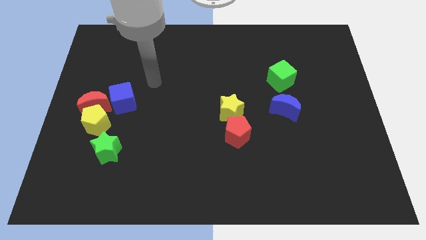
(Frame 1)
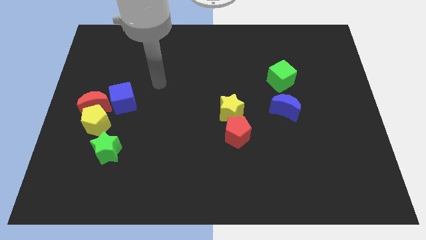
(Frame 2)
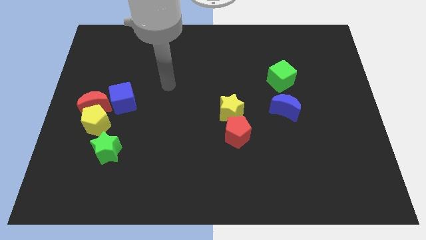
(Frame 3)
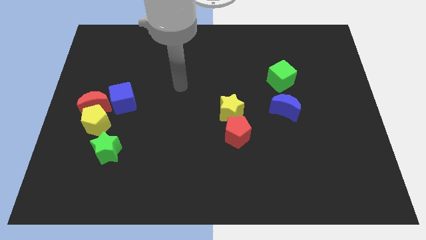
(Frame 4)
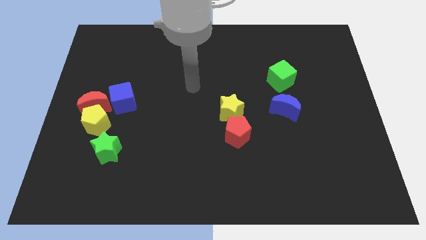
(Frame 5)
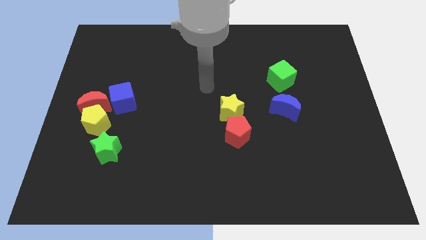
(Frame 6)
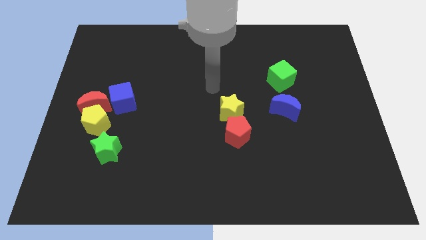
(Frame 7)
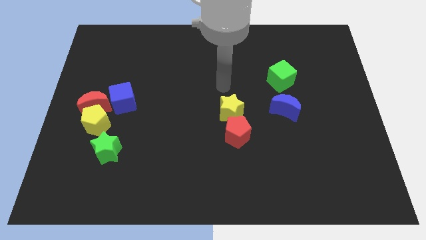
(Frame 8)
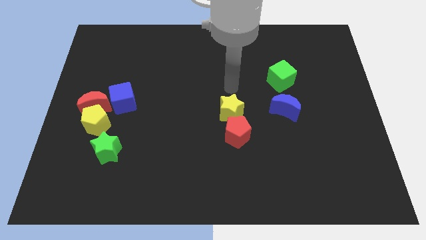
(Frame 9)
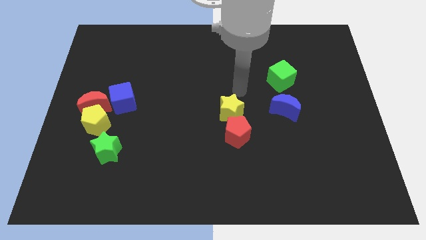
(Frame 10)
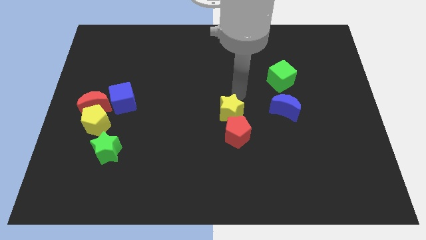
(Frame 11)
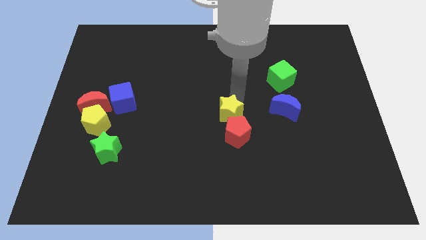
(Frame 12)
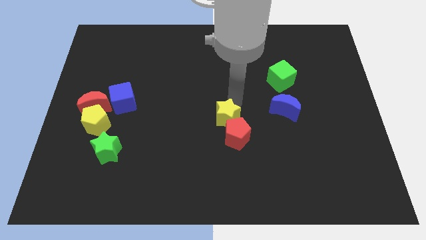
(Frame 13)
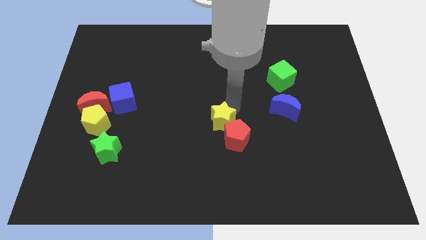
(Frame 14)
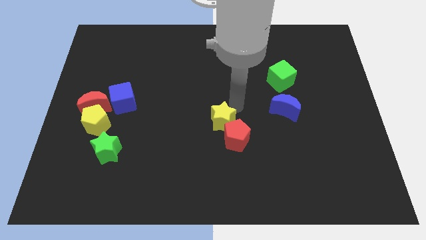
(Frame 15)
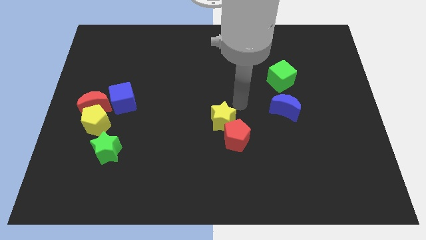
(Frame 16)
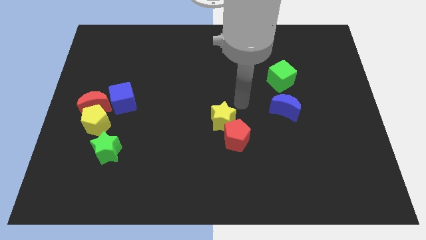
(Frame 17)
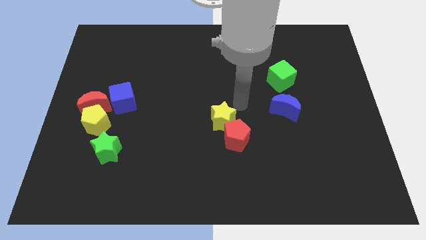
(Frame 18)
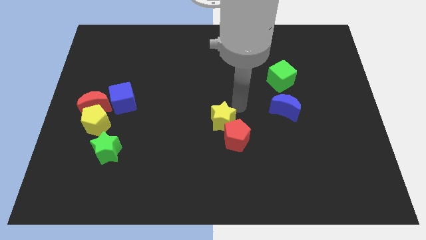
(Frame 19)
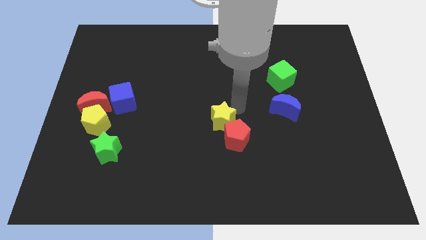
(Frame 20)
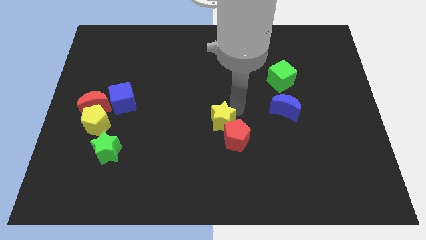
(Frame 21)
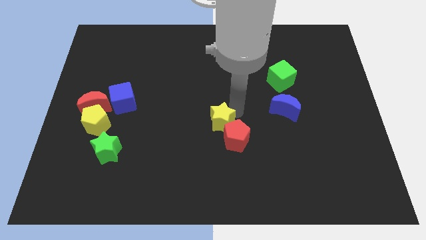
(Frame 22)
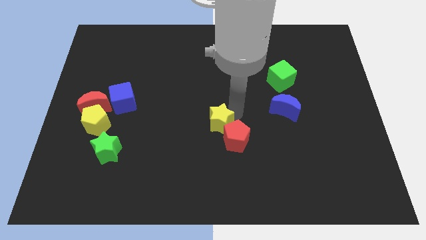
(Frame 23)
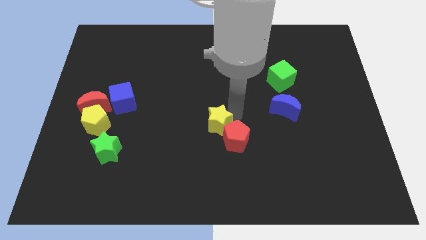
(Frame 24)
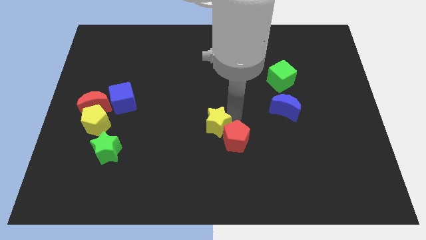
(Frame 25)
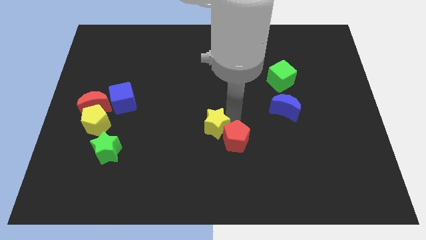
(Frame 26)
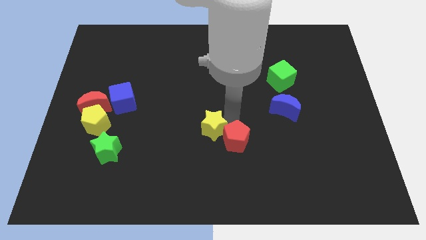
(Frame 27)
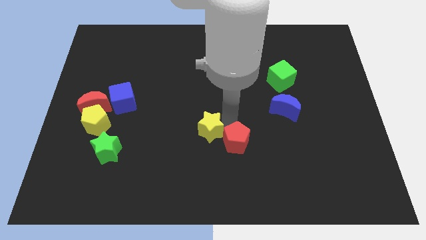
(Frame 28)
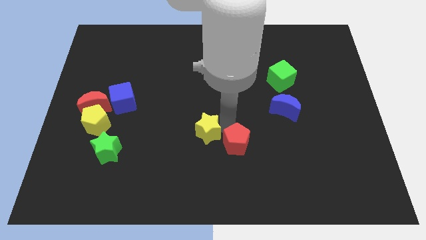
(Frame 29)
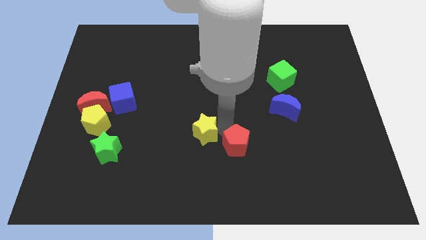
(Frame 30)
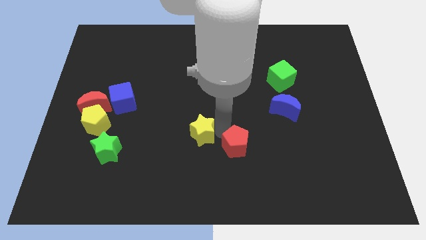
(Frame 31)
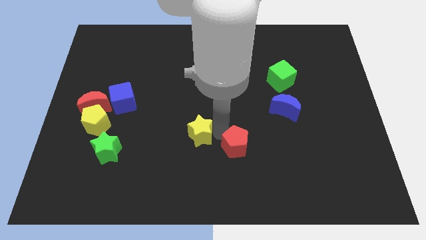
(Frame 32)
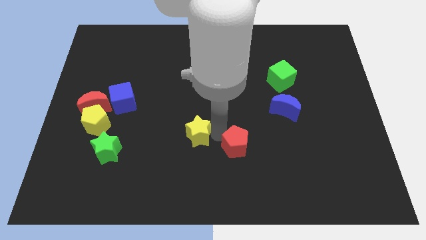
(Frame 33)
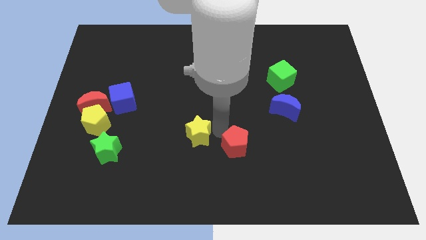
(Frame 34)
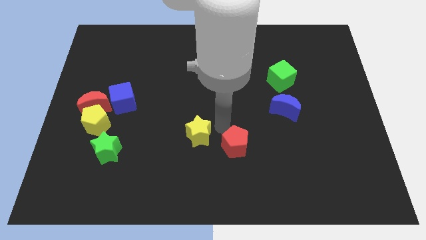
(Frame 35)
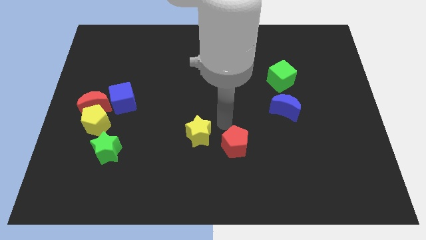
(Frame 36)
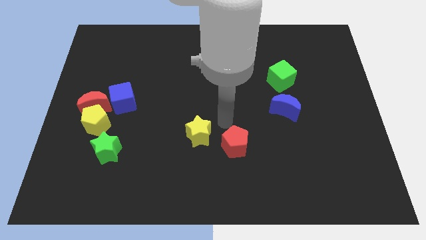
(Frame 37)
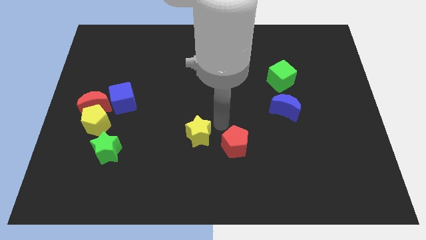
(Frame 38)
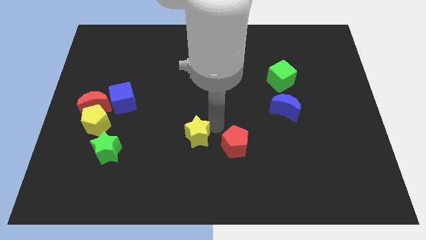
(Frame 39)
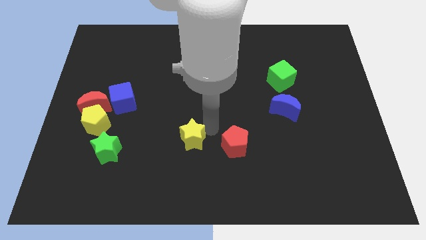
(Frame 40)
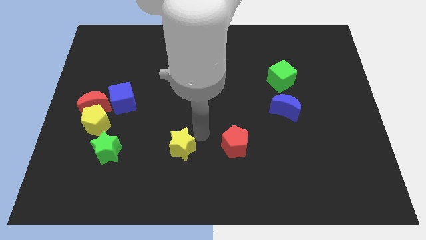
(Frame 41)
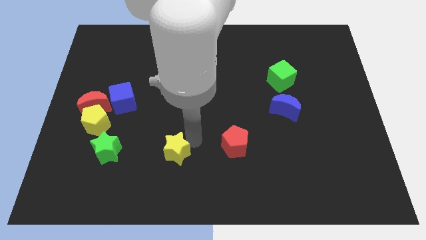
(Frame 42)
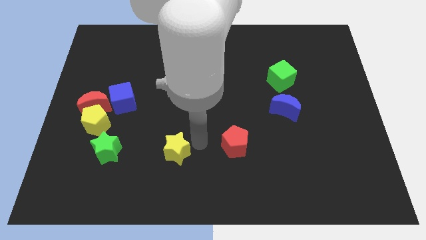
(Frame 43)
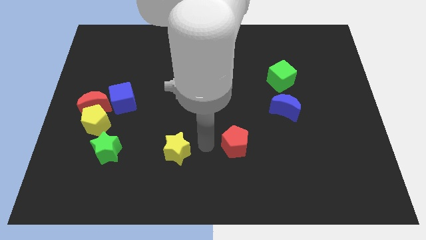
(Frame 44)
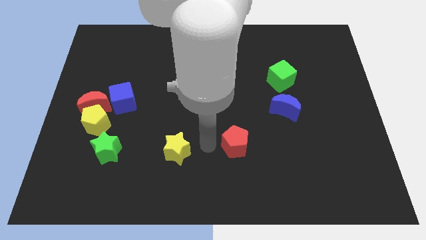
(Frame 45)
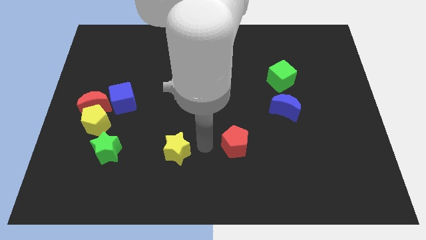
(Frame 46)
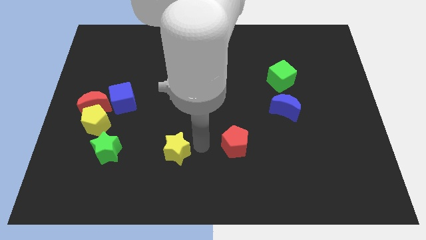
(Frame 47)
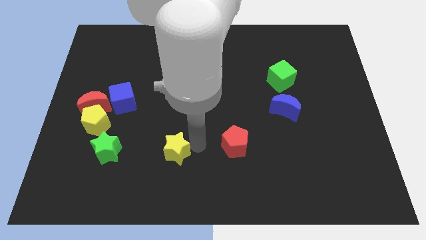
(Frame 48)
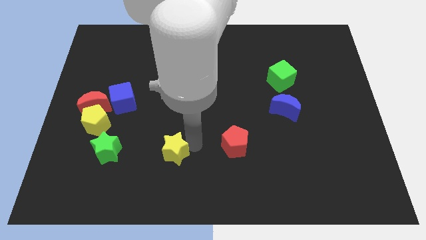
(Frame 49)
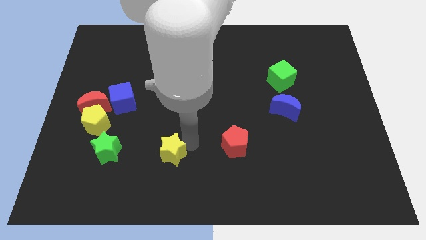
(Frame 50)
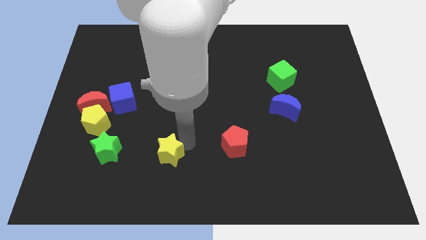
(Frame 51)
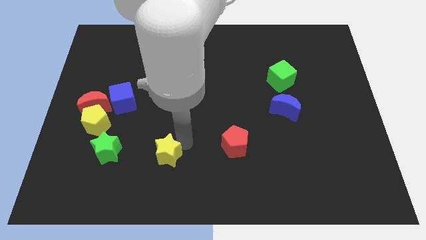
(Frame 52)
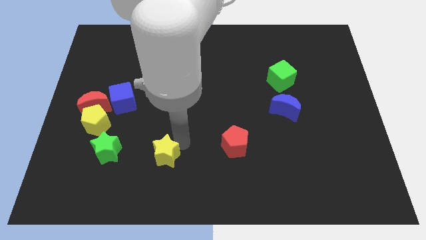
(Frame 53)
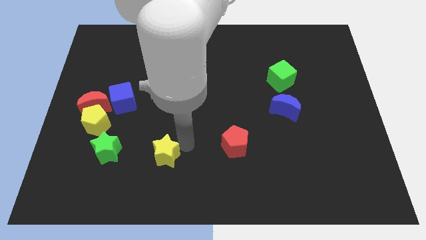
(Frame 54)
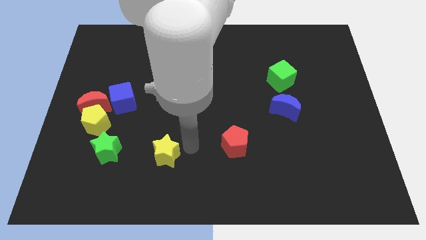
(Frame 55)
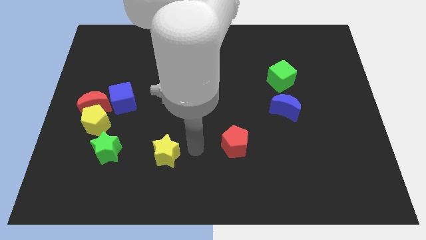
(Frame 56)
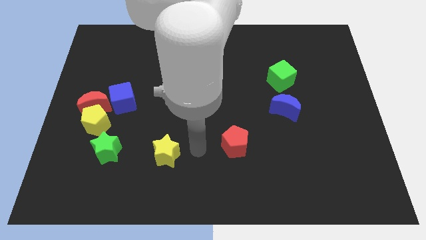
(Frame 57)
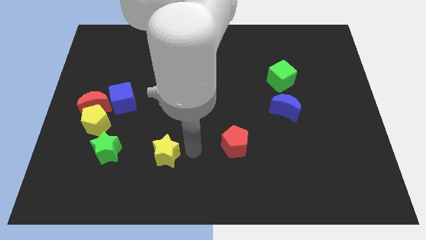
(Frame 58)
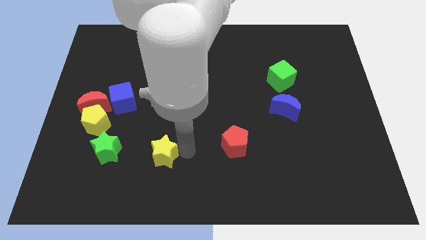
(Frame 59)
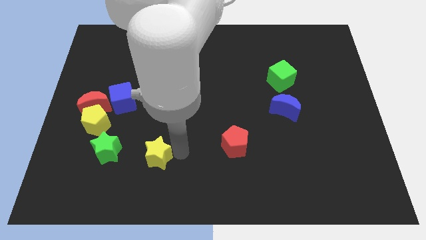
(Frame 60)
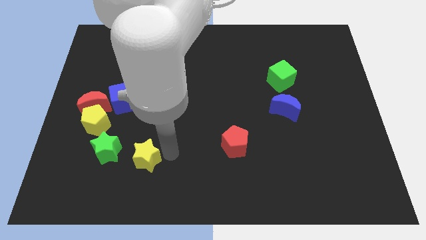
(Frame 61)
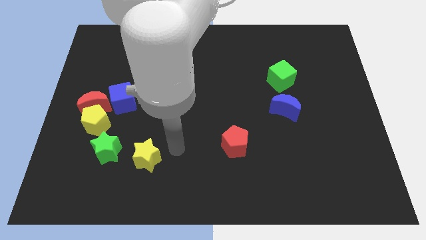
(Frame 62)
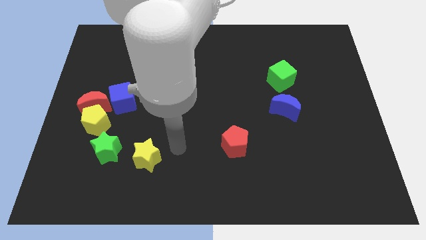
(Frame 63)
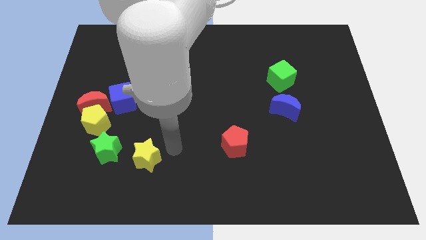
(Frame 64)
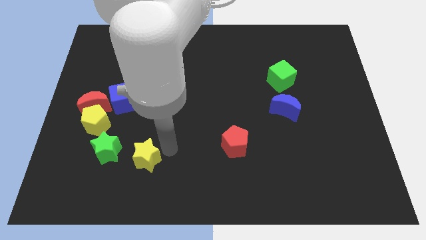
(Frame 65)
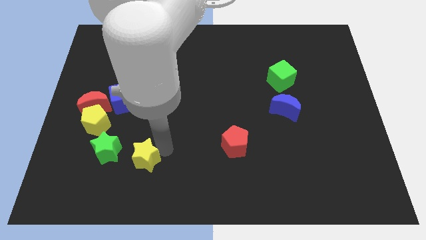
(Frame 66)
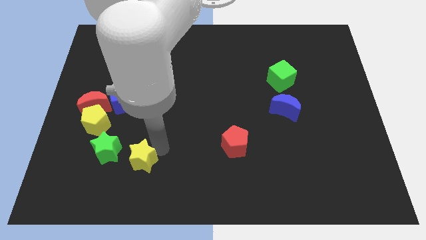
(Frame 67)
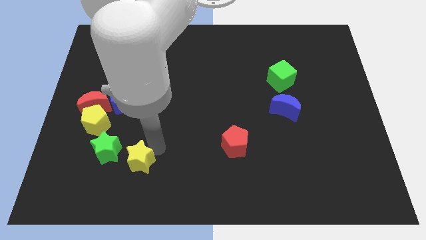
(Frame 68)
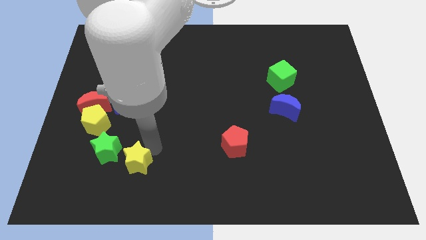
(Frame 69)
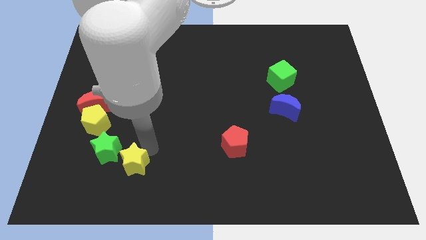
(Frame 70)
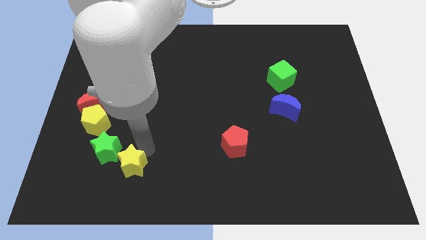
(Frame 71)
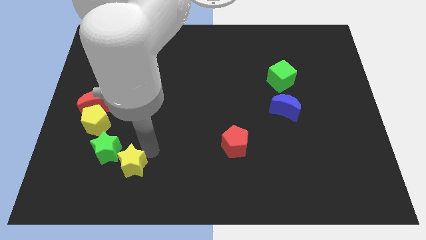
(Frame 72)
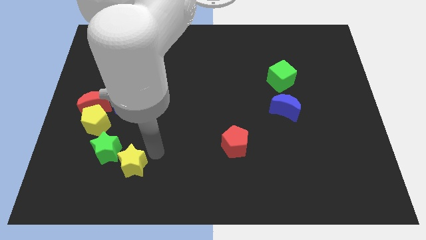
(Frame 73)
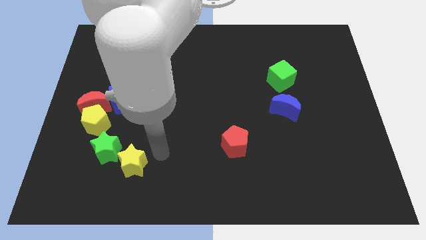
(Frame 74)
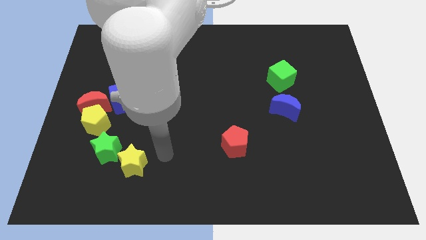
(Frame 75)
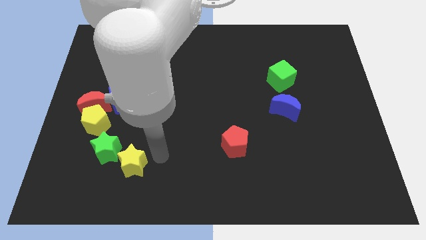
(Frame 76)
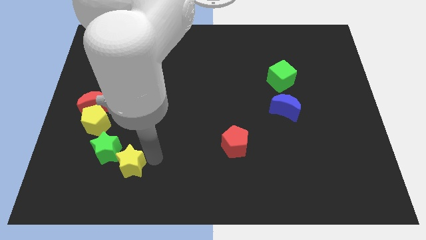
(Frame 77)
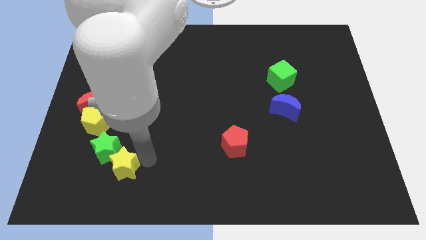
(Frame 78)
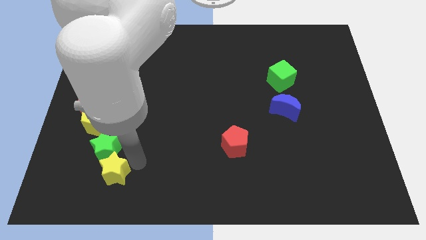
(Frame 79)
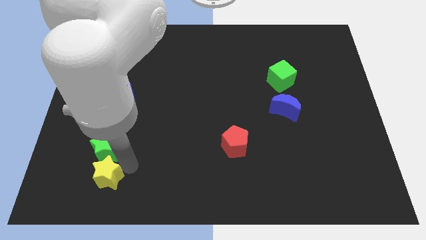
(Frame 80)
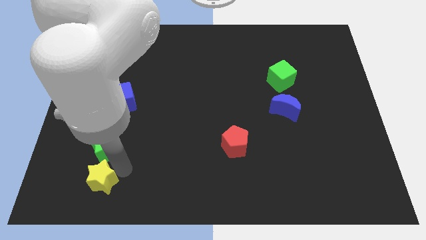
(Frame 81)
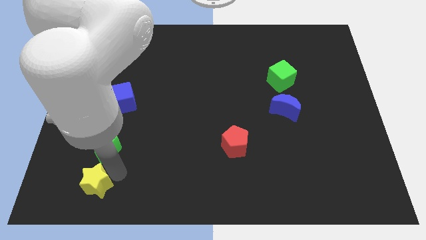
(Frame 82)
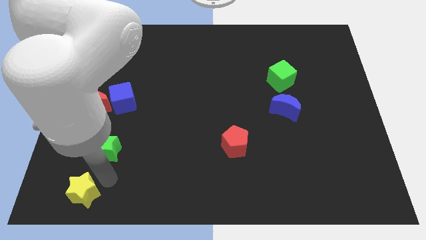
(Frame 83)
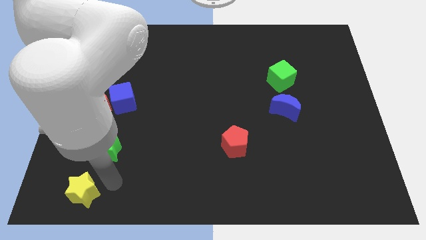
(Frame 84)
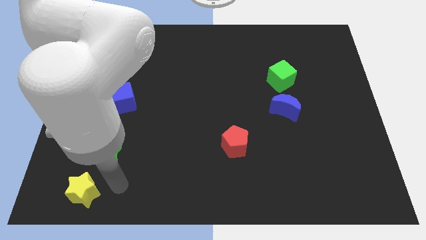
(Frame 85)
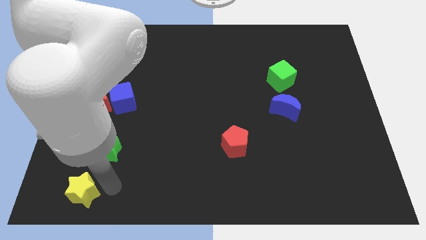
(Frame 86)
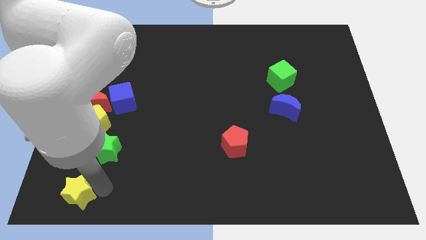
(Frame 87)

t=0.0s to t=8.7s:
move the yellow star to the bottom left
